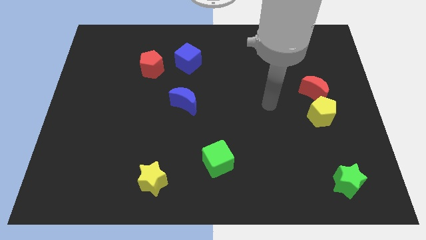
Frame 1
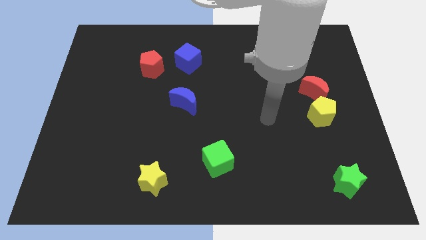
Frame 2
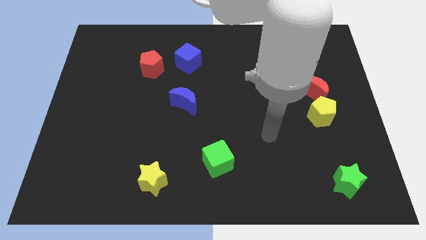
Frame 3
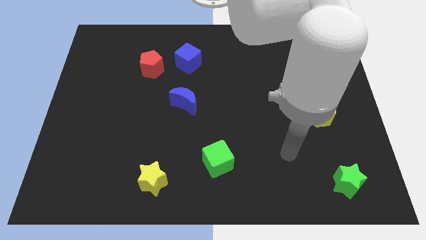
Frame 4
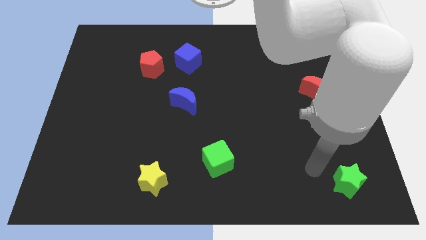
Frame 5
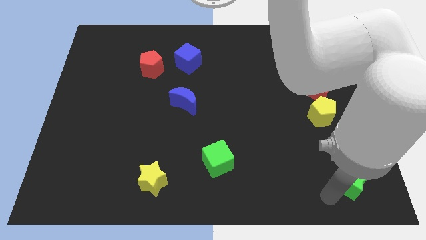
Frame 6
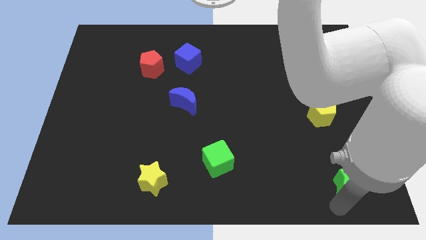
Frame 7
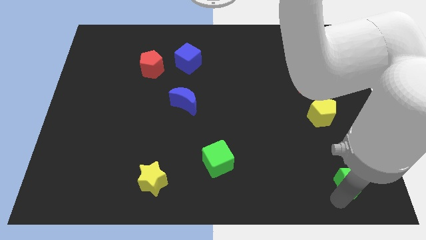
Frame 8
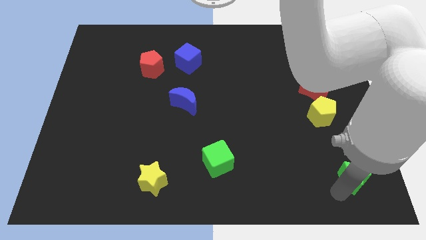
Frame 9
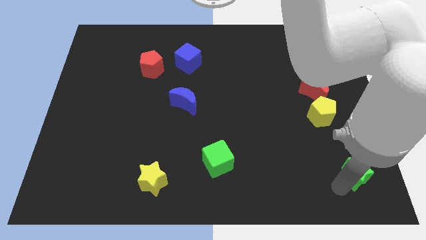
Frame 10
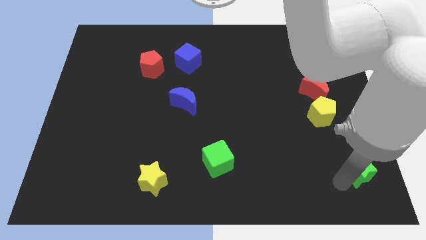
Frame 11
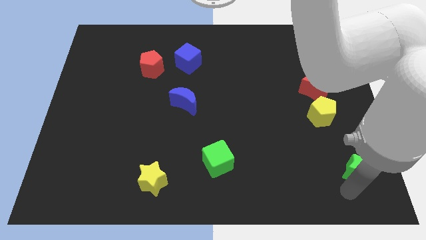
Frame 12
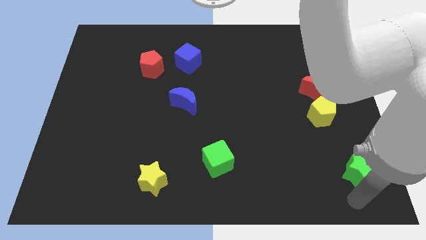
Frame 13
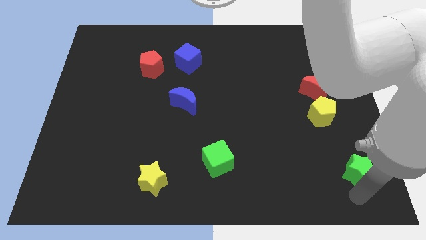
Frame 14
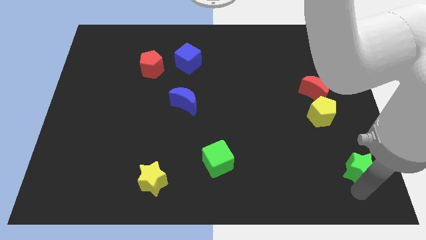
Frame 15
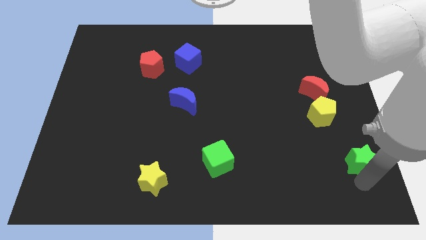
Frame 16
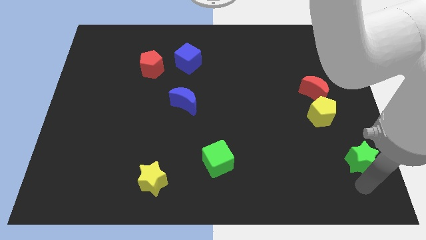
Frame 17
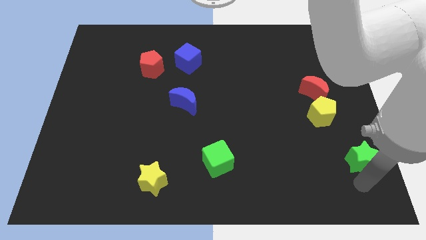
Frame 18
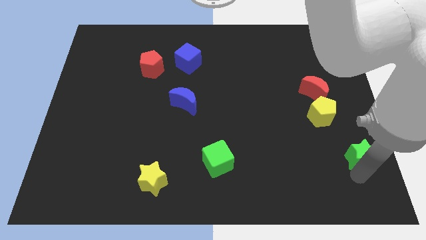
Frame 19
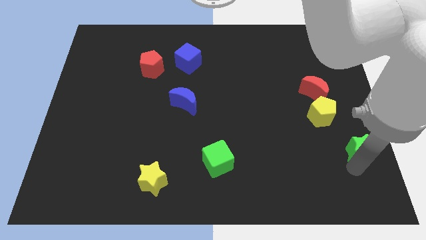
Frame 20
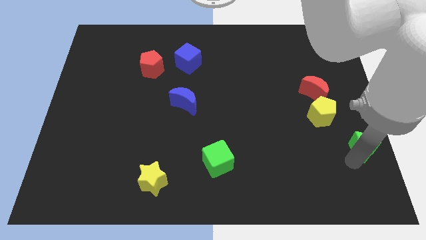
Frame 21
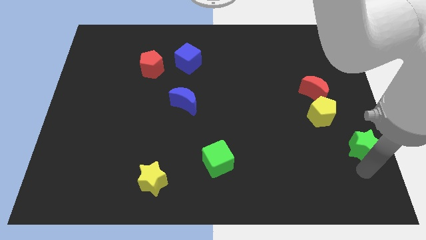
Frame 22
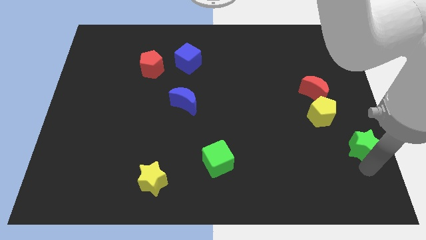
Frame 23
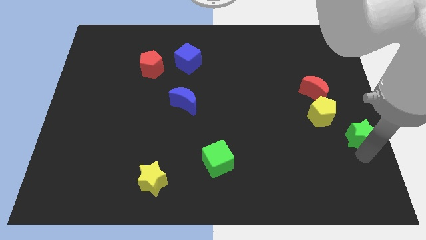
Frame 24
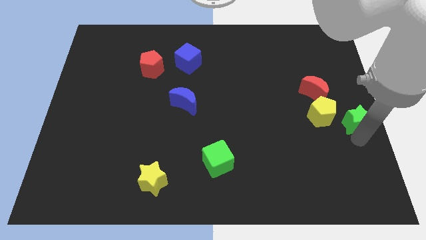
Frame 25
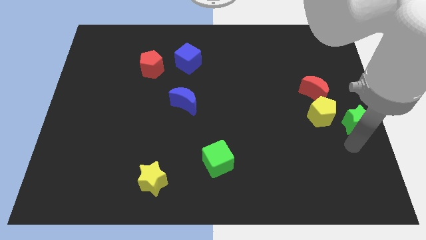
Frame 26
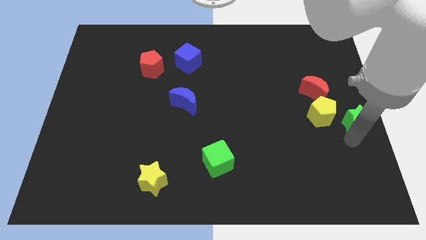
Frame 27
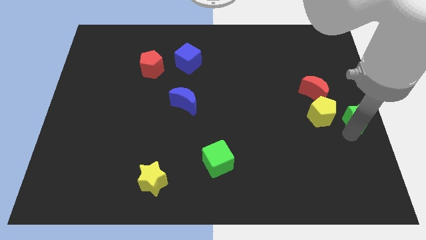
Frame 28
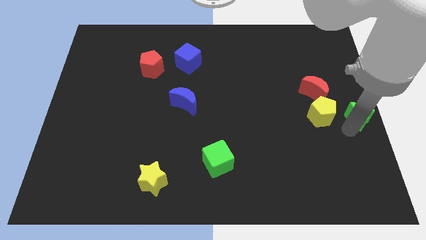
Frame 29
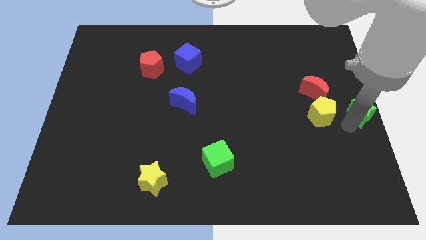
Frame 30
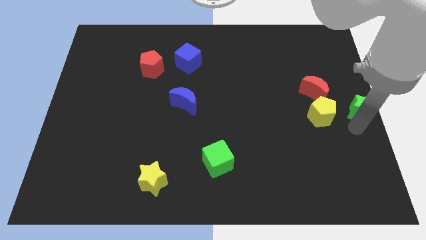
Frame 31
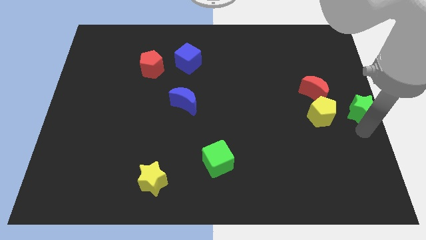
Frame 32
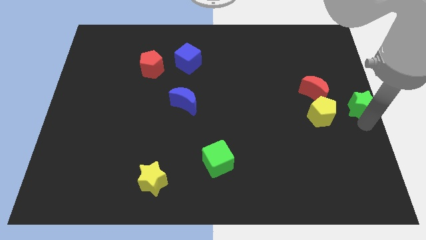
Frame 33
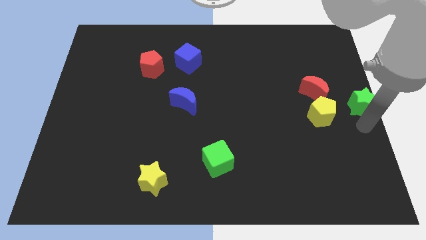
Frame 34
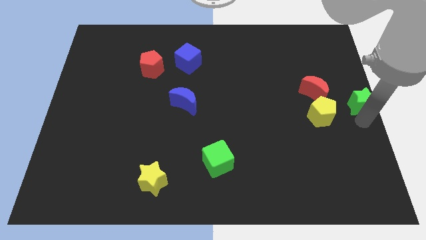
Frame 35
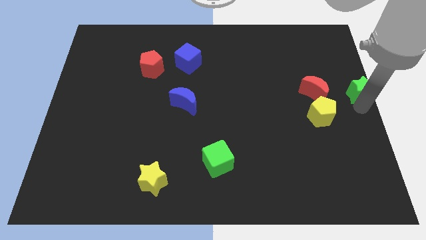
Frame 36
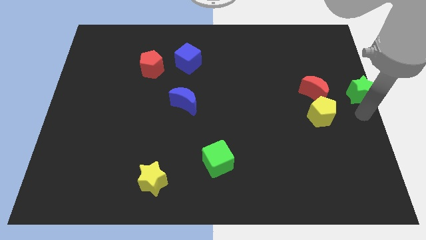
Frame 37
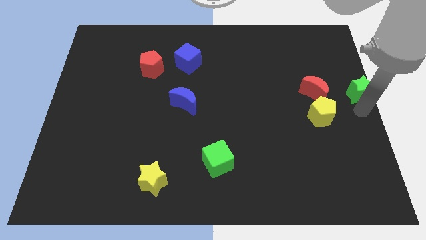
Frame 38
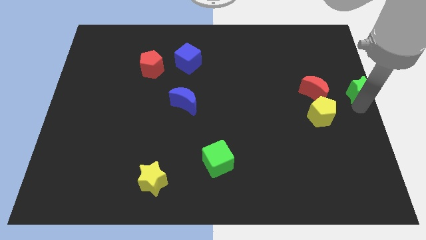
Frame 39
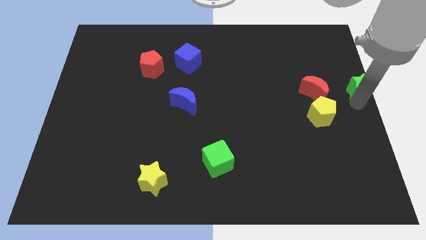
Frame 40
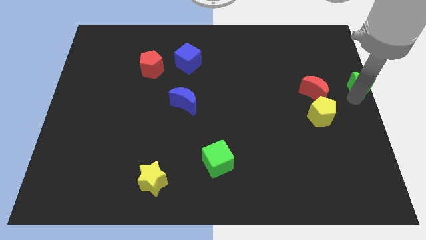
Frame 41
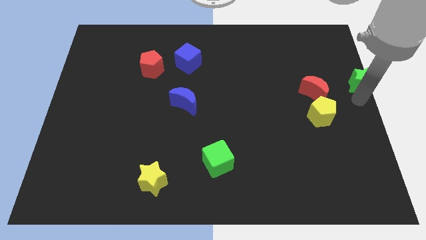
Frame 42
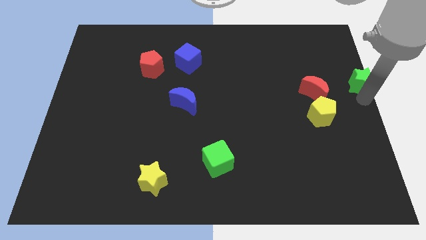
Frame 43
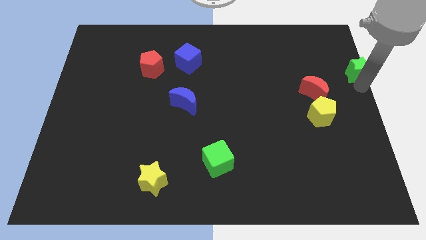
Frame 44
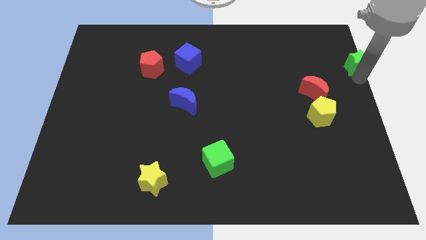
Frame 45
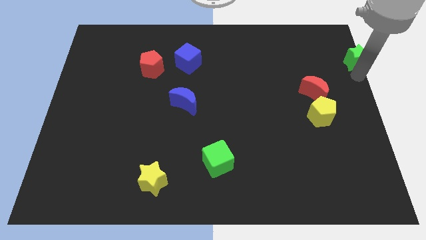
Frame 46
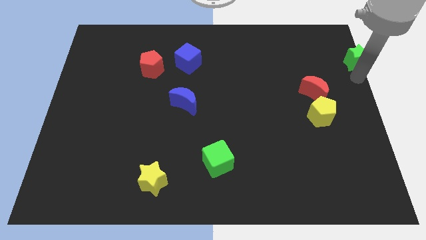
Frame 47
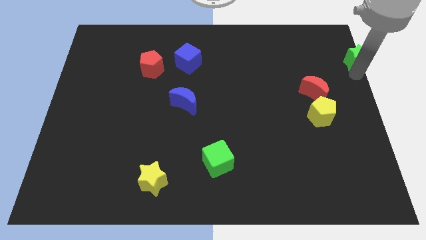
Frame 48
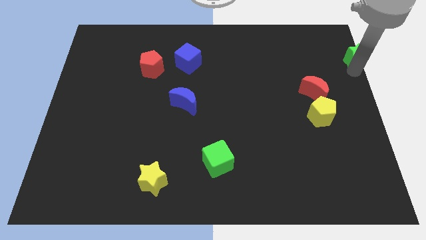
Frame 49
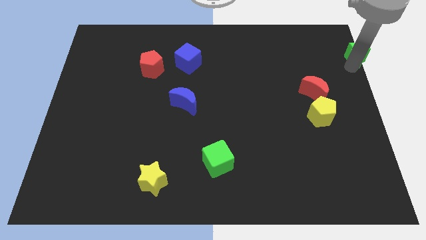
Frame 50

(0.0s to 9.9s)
put the green star to the top right corner

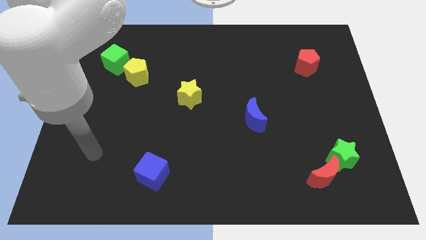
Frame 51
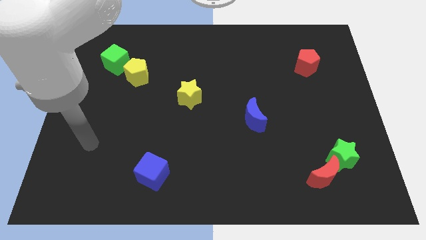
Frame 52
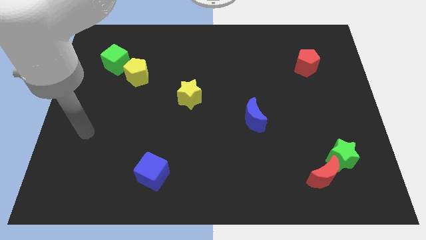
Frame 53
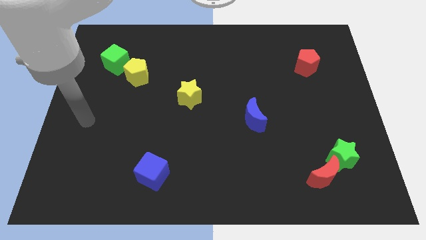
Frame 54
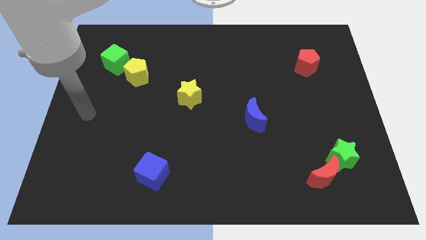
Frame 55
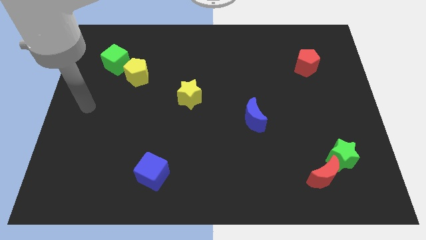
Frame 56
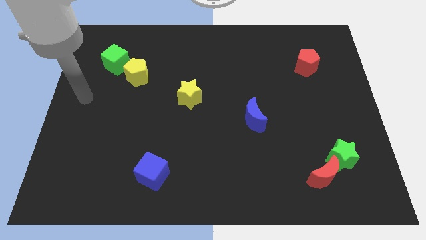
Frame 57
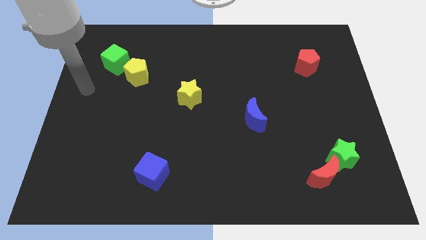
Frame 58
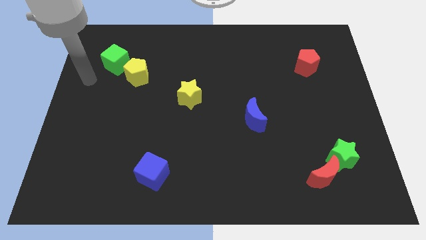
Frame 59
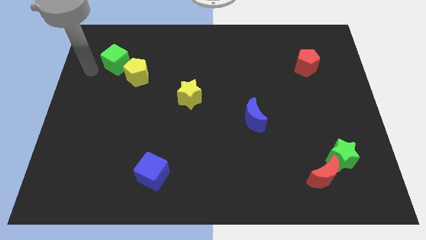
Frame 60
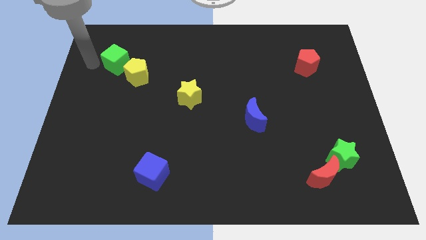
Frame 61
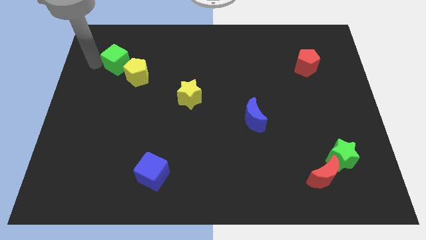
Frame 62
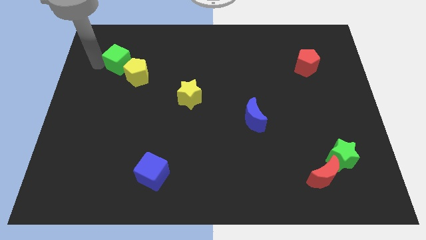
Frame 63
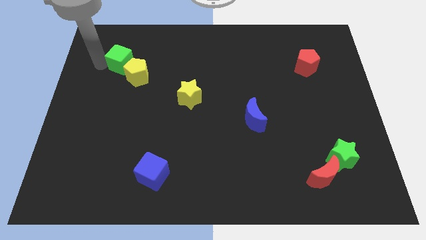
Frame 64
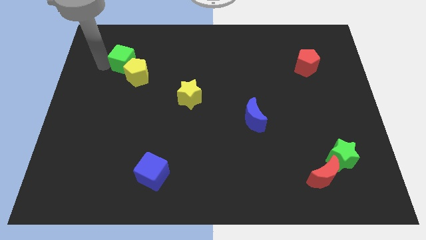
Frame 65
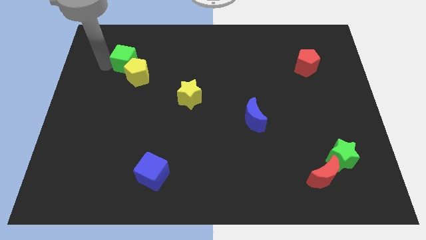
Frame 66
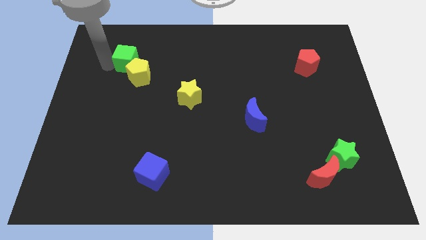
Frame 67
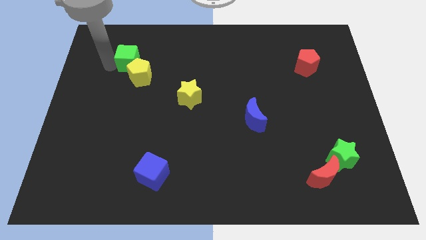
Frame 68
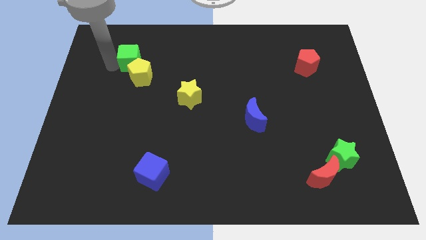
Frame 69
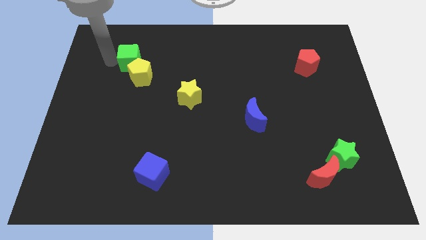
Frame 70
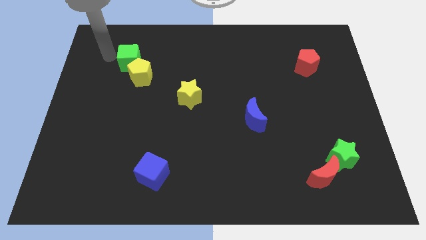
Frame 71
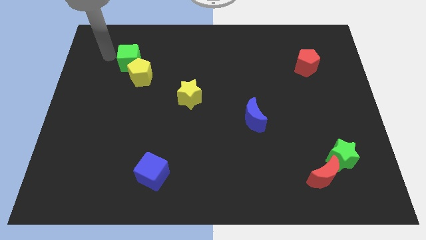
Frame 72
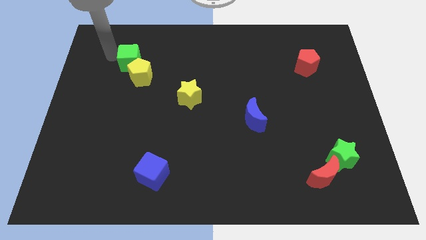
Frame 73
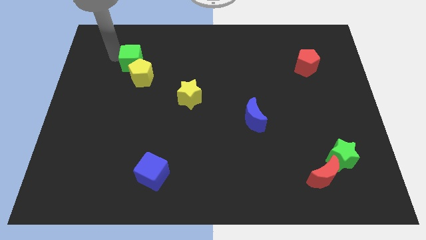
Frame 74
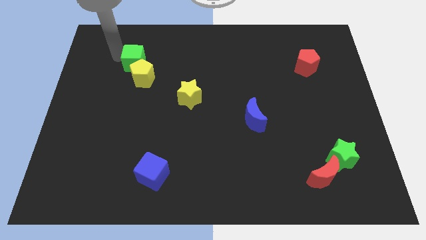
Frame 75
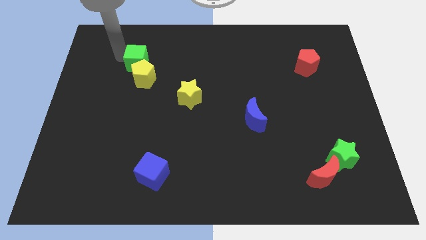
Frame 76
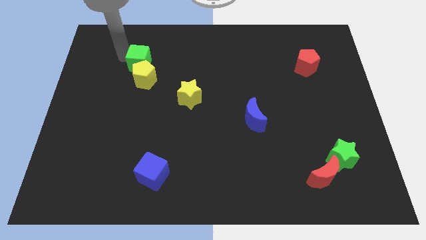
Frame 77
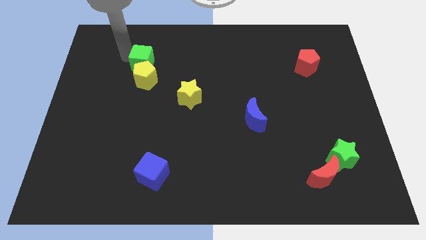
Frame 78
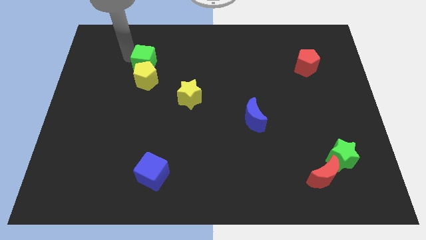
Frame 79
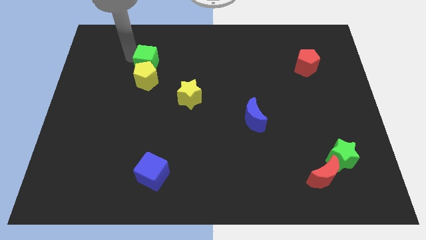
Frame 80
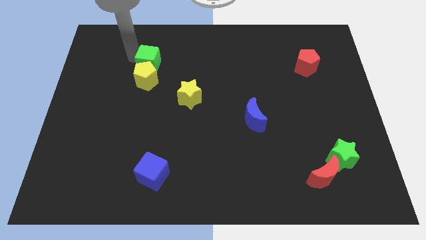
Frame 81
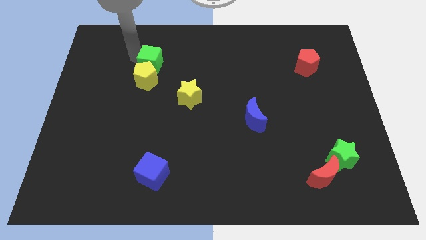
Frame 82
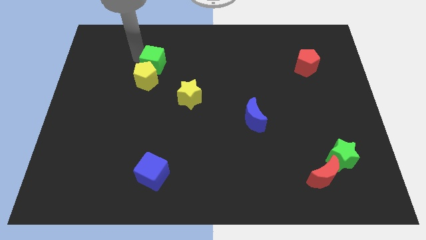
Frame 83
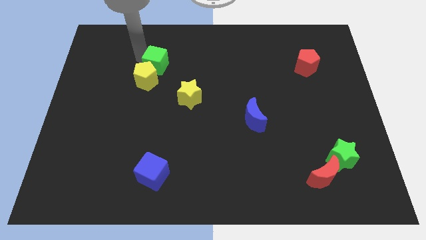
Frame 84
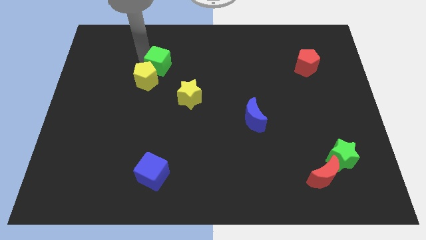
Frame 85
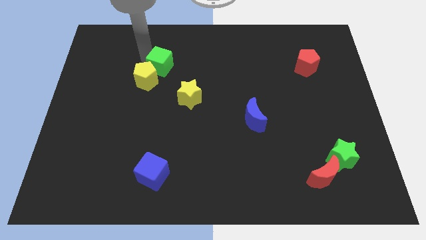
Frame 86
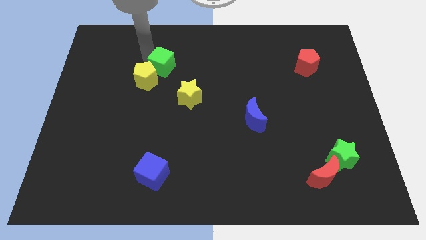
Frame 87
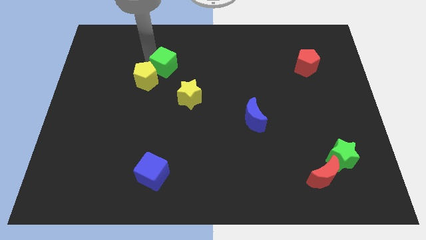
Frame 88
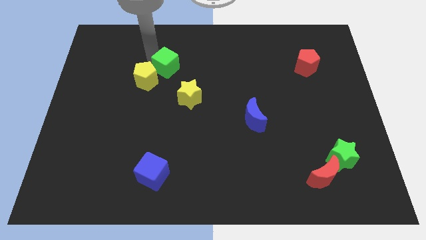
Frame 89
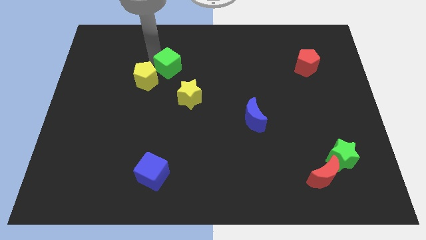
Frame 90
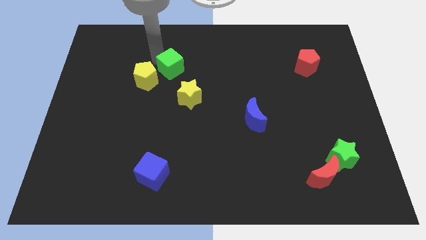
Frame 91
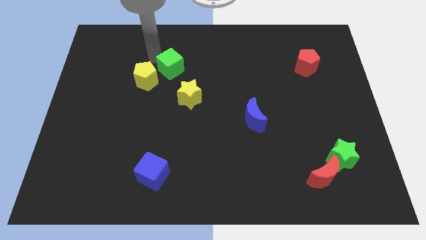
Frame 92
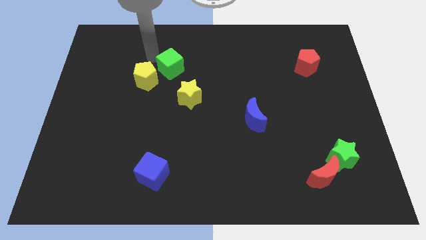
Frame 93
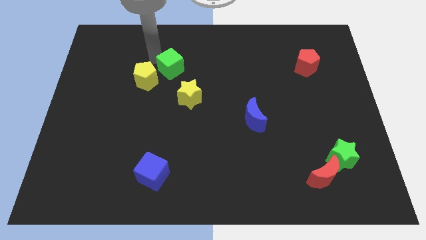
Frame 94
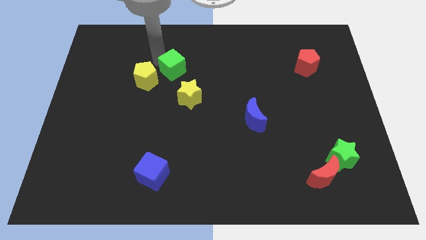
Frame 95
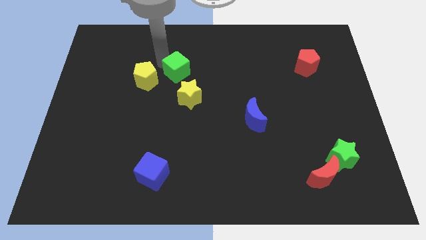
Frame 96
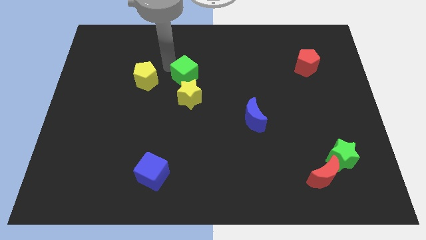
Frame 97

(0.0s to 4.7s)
slide the green cube to the middle of the board
